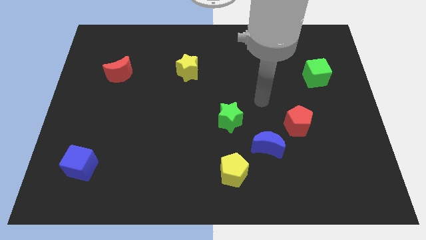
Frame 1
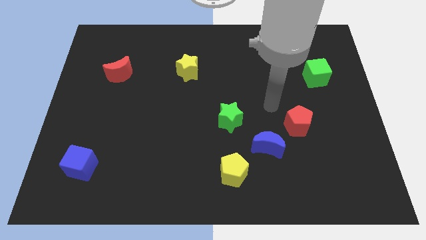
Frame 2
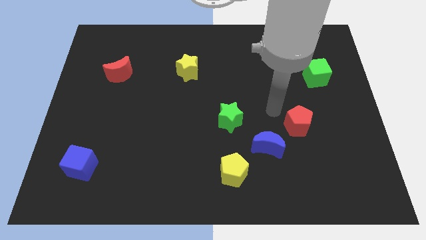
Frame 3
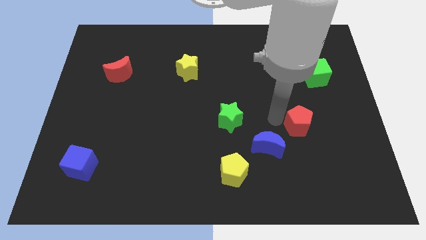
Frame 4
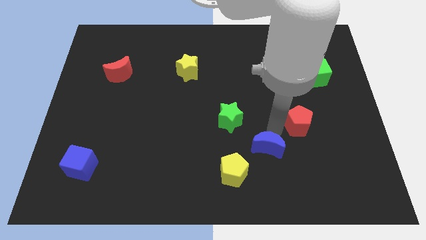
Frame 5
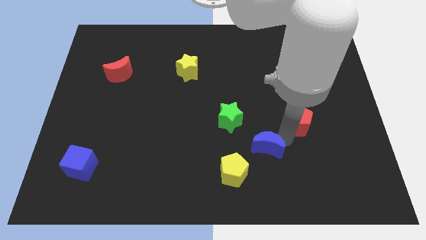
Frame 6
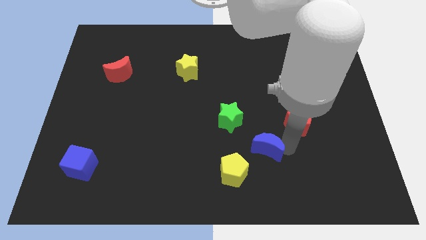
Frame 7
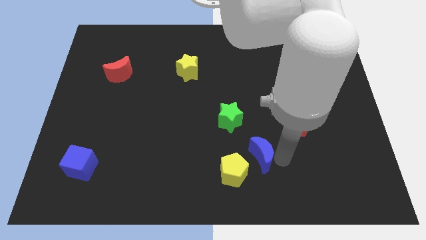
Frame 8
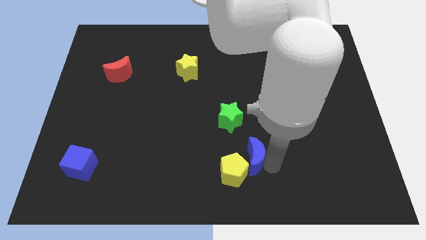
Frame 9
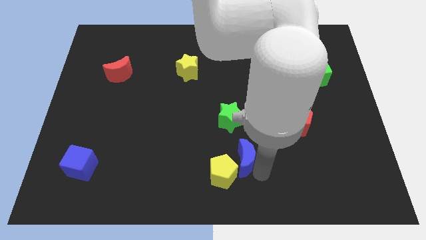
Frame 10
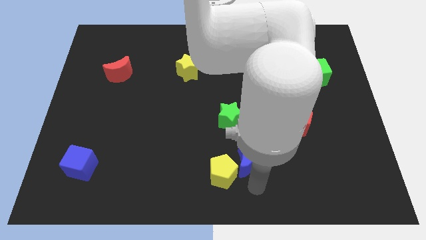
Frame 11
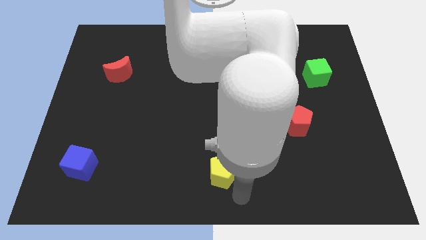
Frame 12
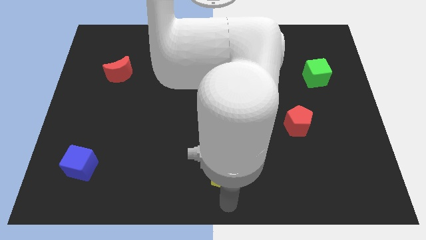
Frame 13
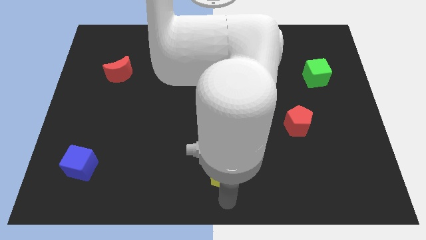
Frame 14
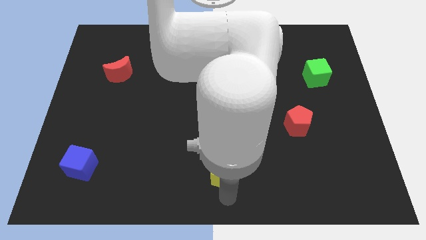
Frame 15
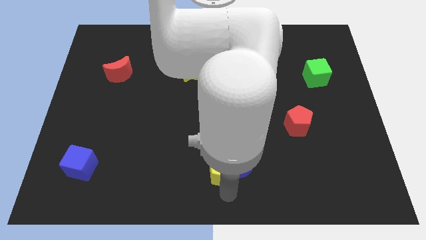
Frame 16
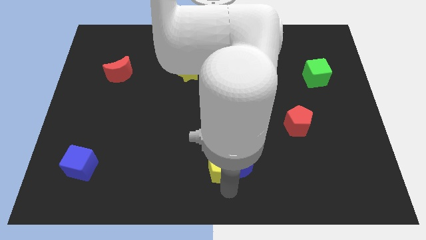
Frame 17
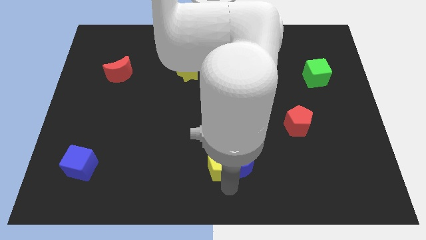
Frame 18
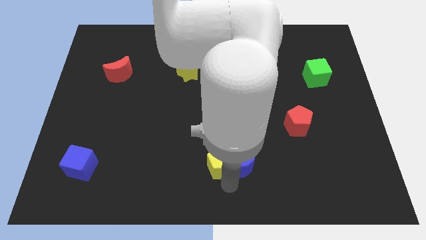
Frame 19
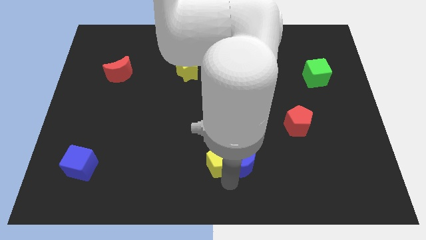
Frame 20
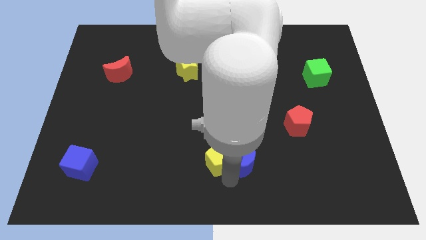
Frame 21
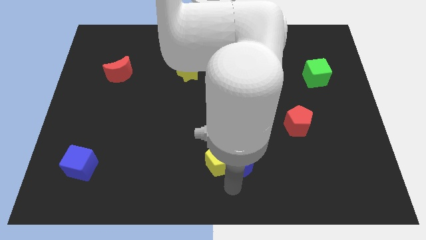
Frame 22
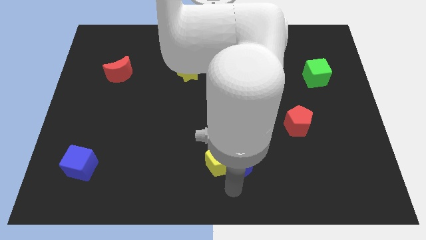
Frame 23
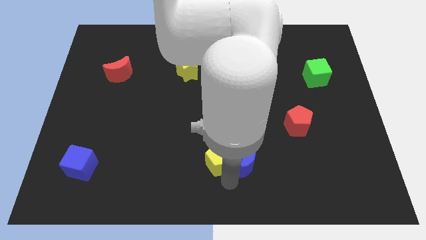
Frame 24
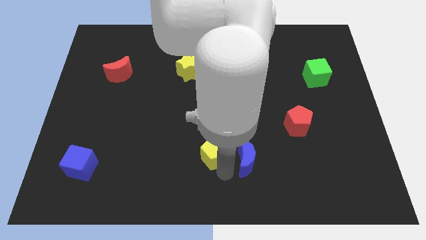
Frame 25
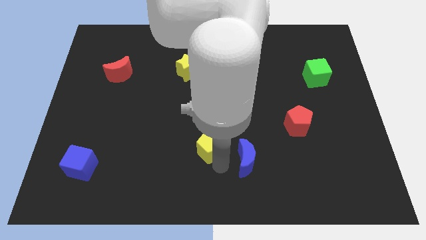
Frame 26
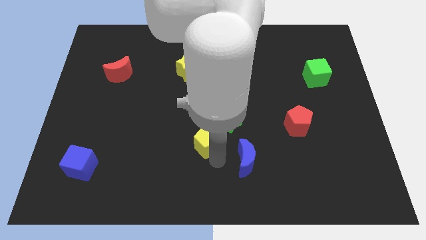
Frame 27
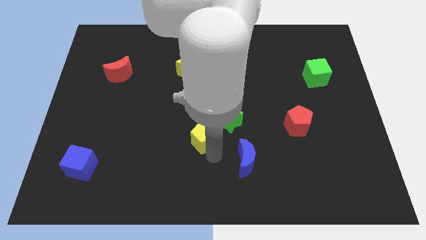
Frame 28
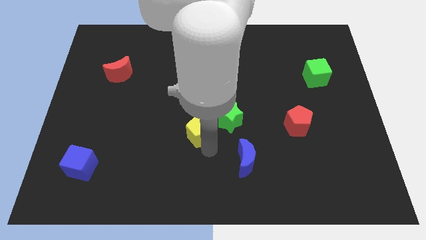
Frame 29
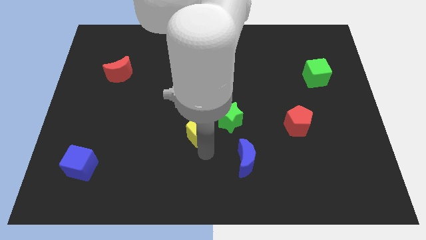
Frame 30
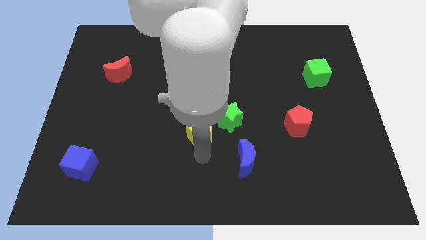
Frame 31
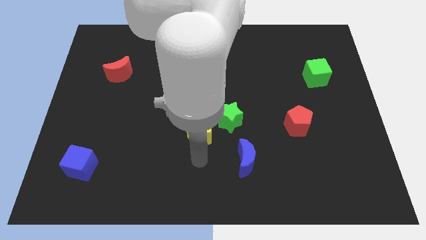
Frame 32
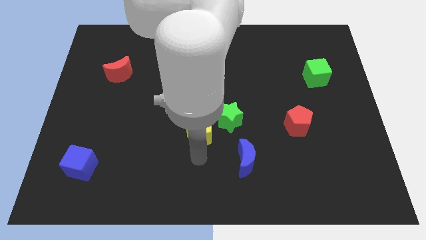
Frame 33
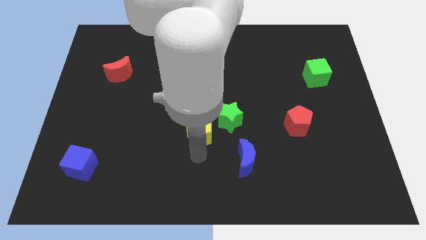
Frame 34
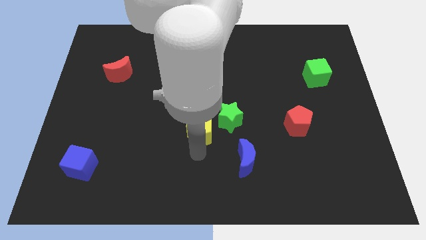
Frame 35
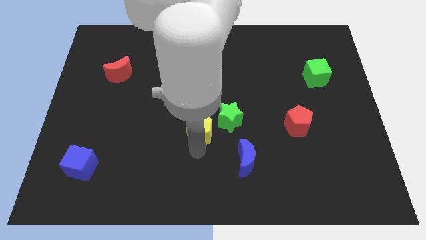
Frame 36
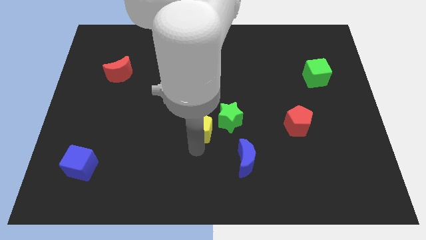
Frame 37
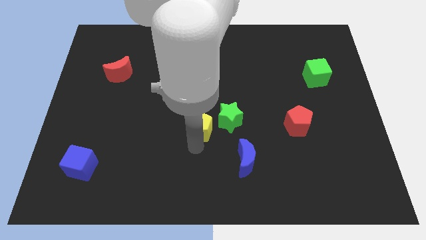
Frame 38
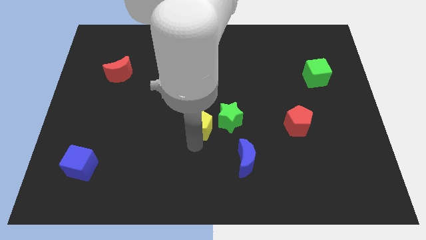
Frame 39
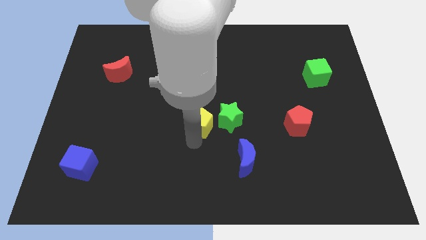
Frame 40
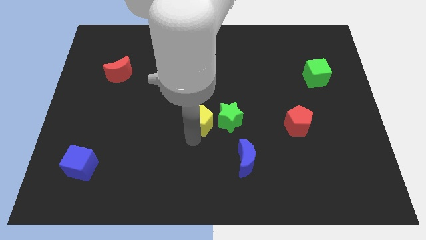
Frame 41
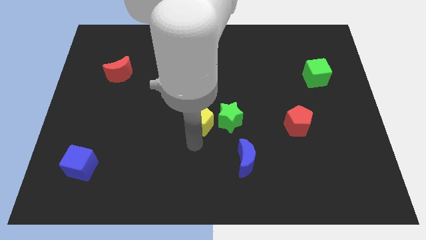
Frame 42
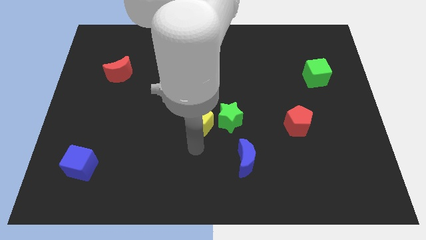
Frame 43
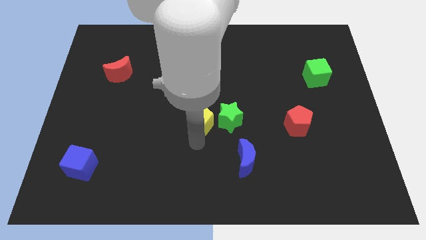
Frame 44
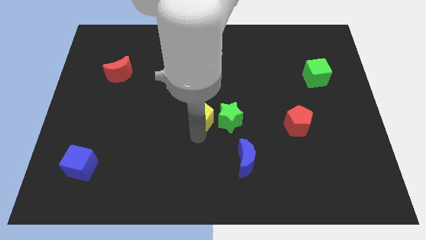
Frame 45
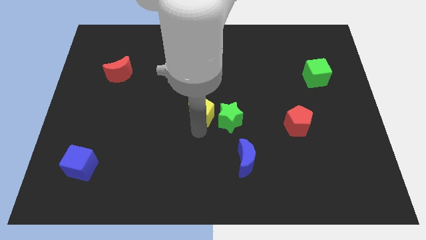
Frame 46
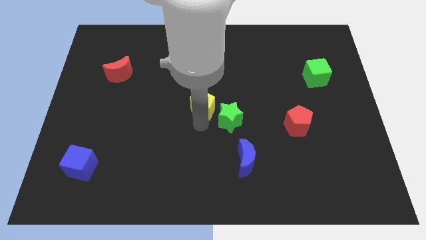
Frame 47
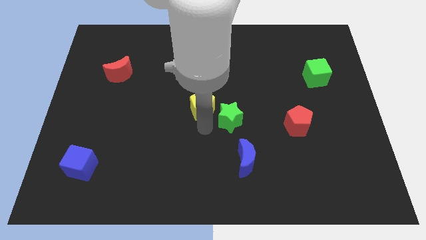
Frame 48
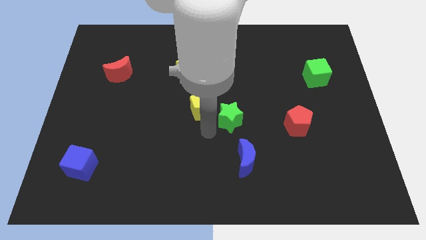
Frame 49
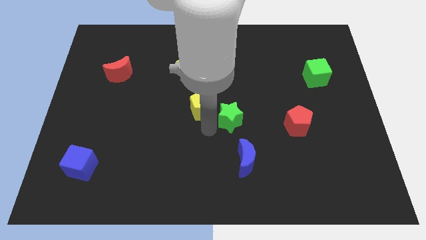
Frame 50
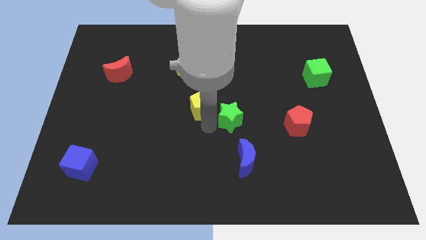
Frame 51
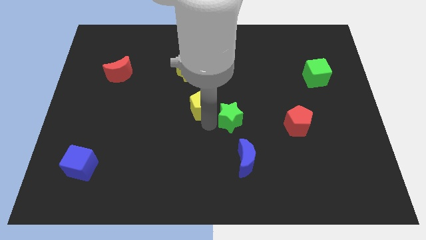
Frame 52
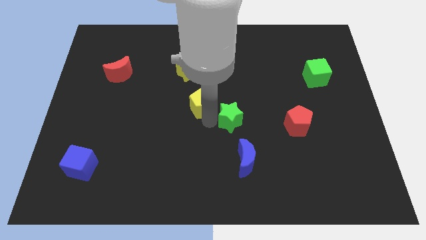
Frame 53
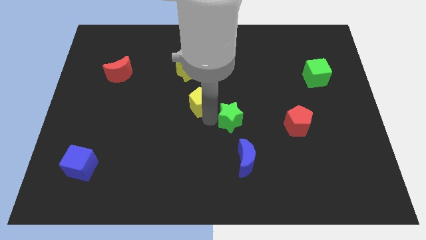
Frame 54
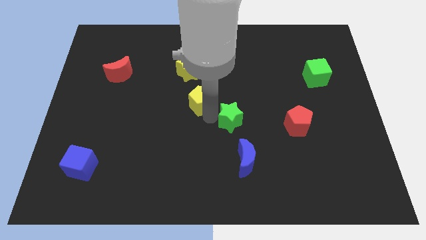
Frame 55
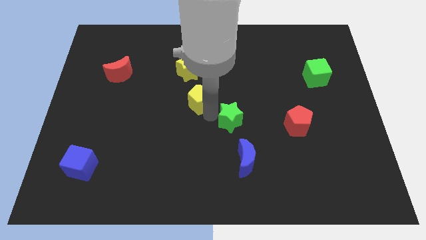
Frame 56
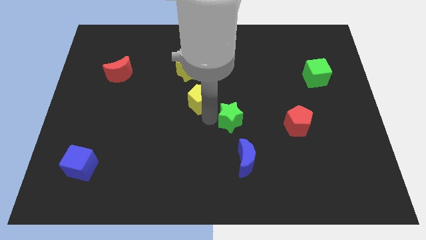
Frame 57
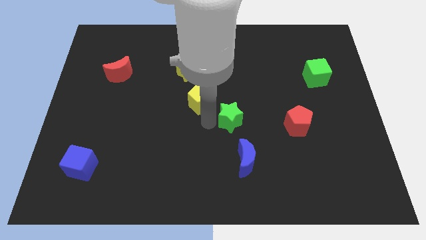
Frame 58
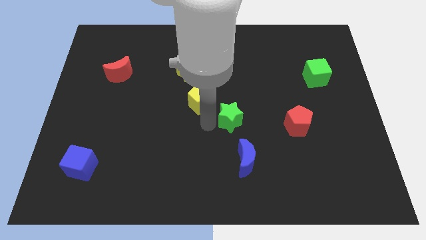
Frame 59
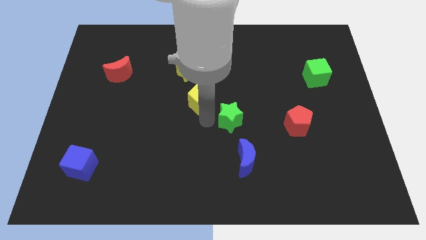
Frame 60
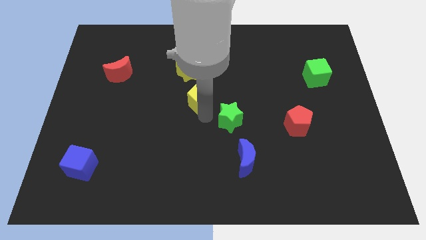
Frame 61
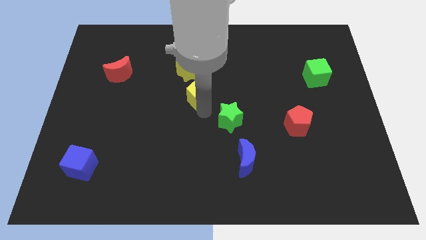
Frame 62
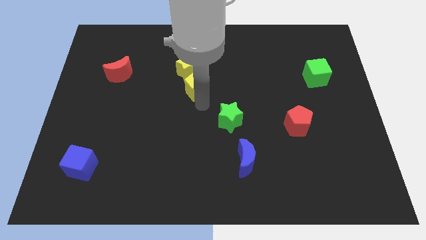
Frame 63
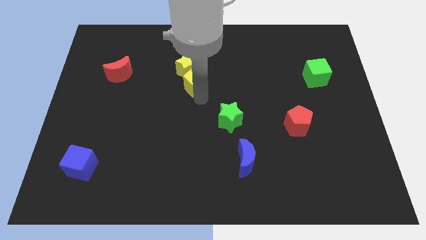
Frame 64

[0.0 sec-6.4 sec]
move the yellow pentagon close to the yellow star

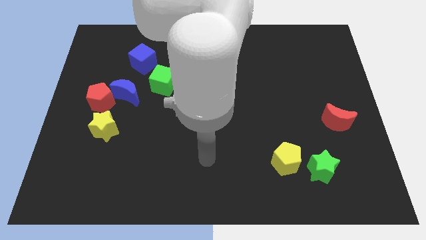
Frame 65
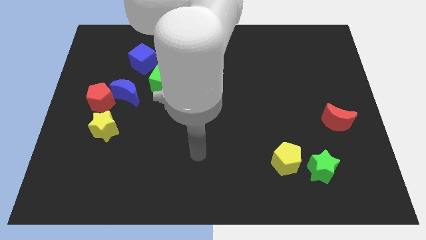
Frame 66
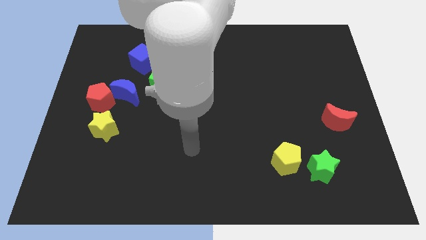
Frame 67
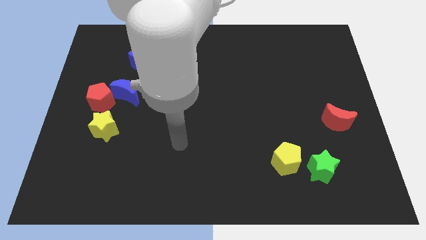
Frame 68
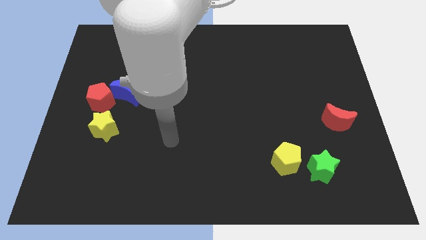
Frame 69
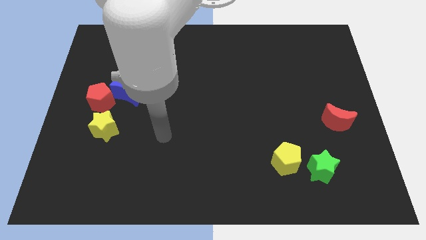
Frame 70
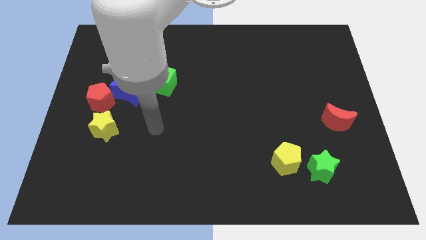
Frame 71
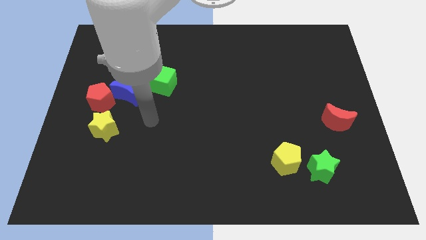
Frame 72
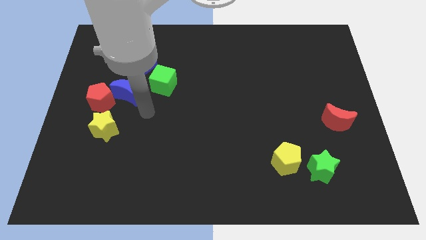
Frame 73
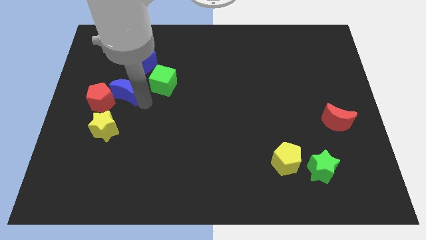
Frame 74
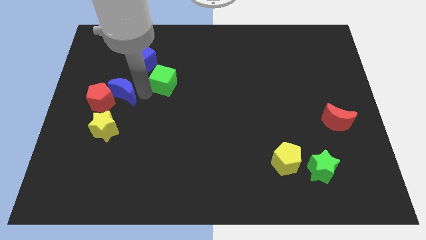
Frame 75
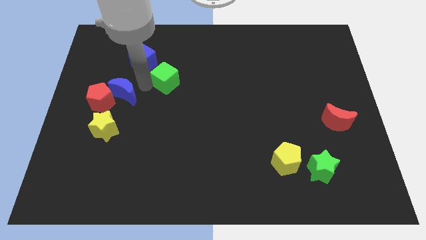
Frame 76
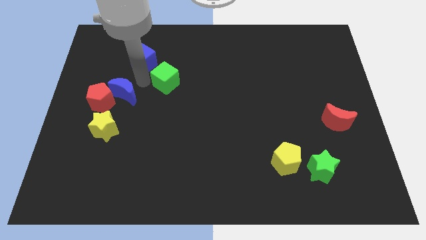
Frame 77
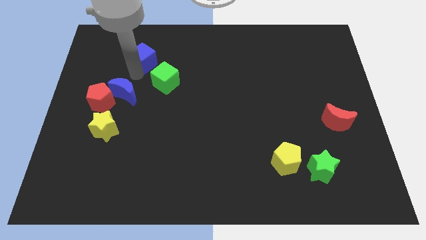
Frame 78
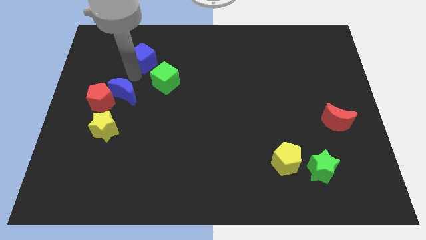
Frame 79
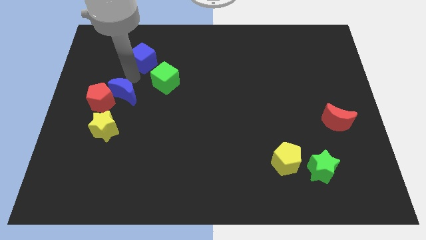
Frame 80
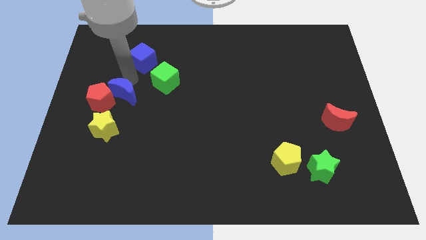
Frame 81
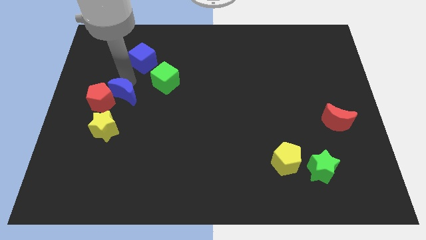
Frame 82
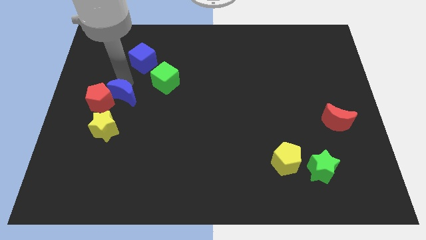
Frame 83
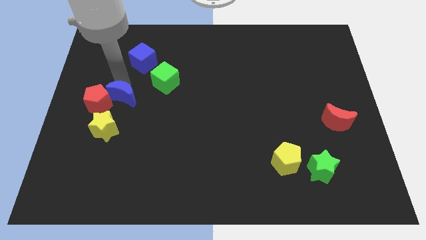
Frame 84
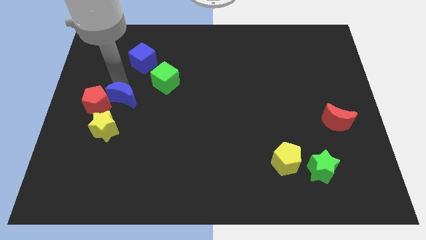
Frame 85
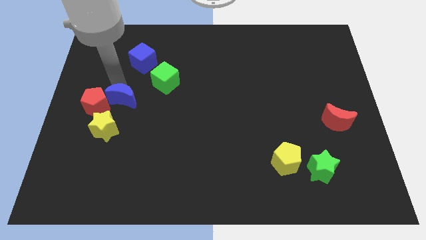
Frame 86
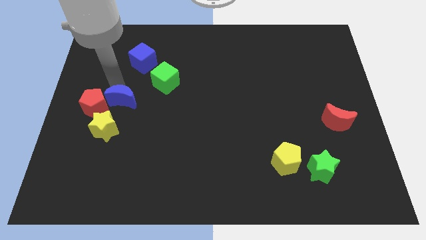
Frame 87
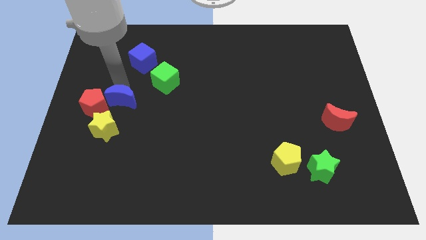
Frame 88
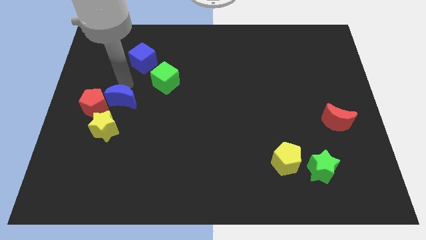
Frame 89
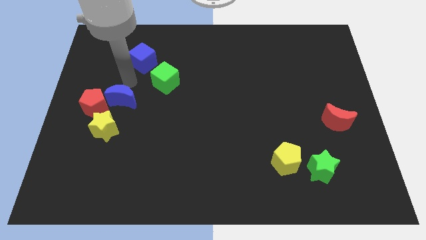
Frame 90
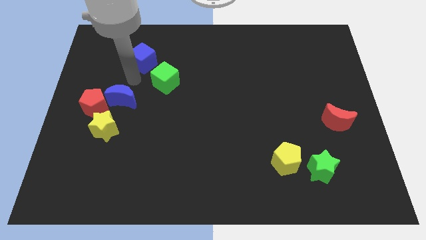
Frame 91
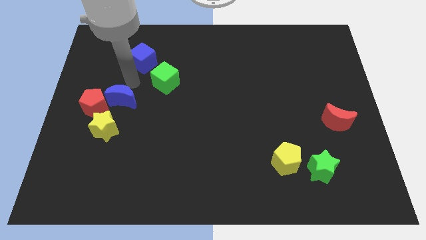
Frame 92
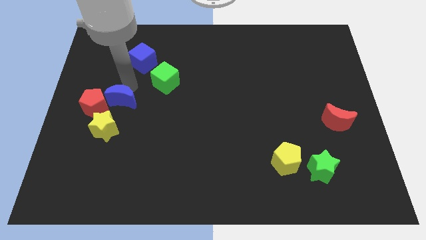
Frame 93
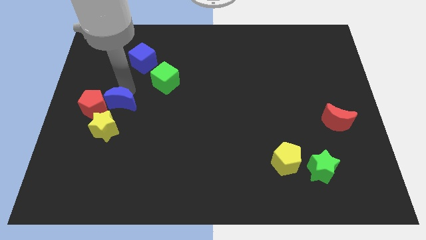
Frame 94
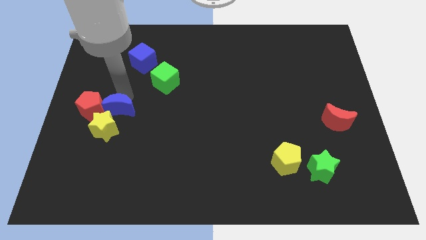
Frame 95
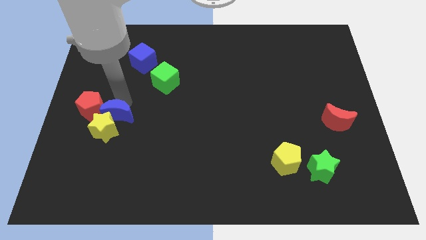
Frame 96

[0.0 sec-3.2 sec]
slide the blue moon towards the yellow star
